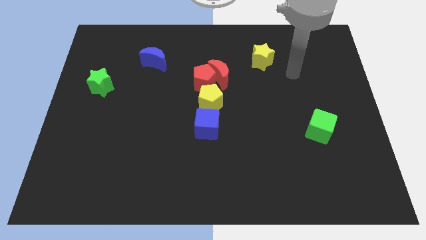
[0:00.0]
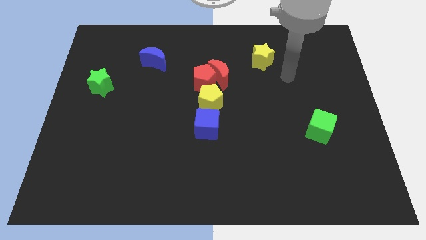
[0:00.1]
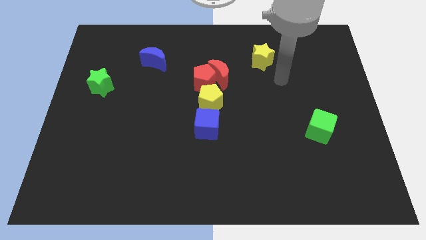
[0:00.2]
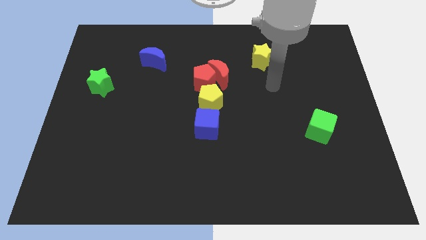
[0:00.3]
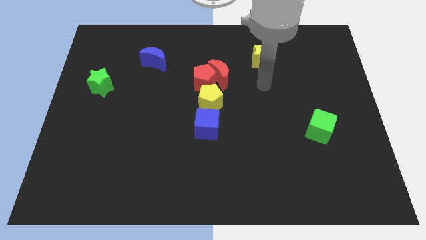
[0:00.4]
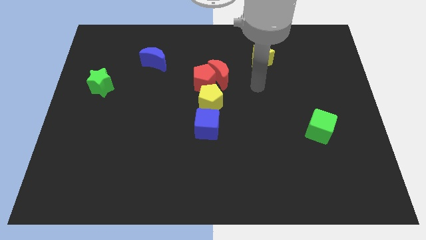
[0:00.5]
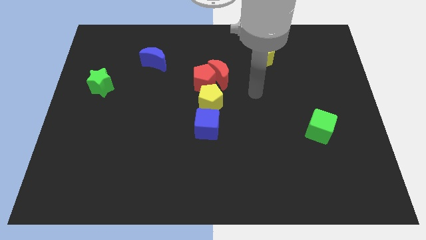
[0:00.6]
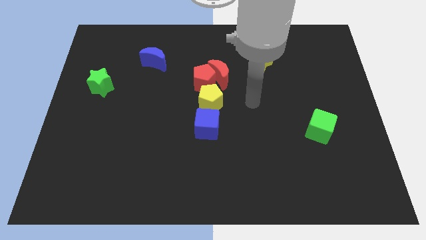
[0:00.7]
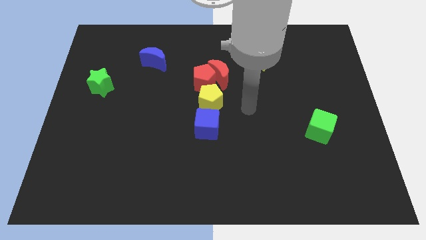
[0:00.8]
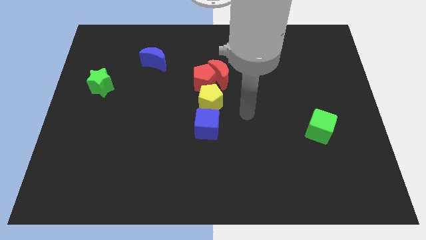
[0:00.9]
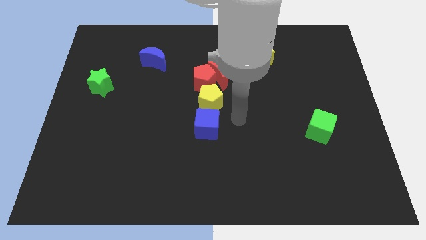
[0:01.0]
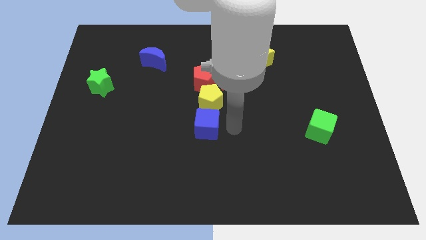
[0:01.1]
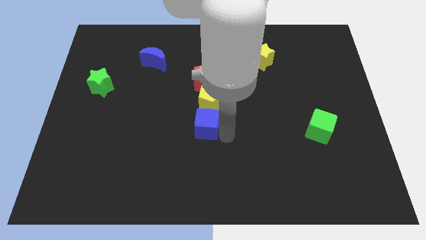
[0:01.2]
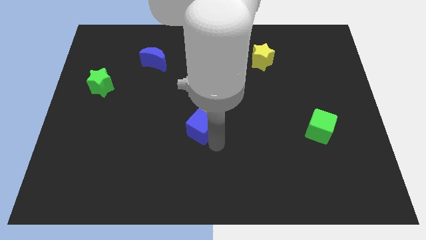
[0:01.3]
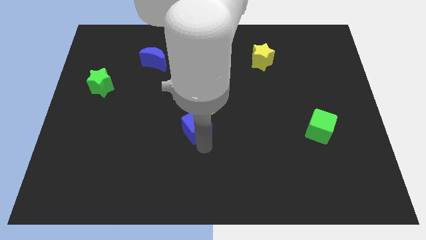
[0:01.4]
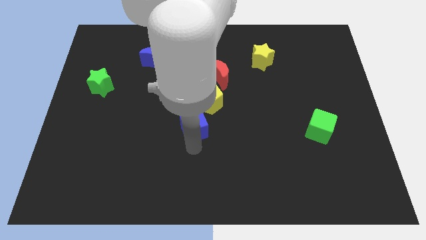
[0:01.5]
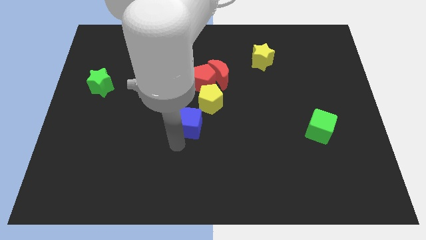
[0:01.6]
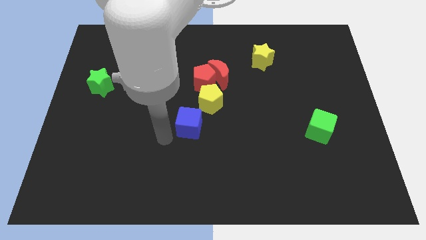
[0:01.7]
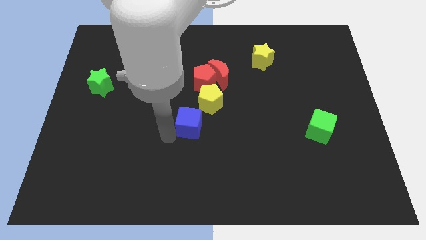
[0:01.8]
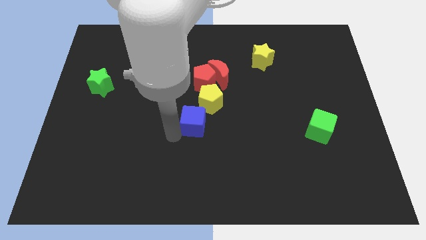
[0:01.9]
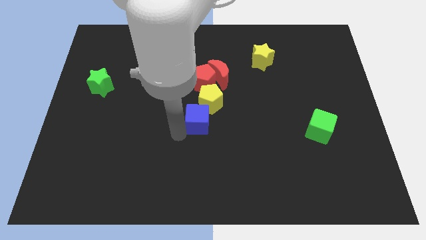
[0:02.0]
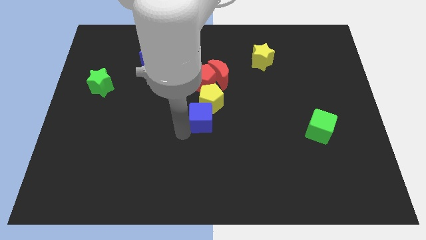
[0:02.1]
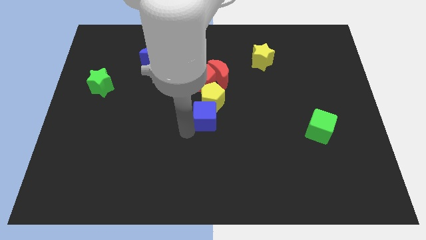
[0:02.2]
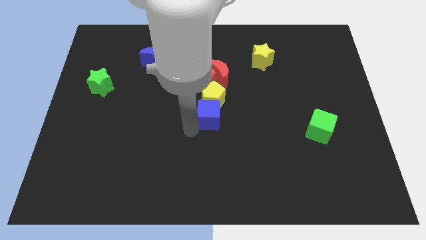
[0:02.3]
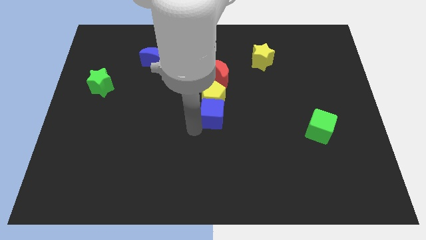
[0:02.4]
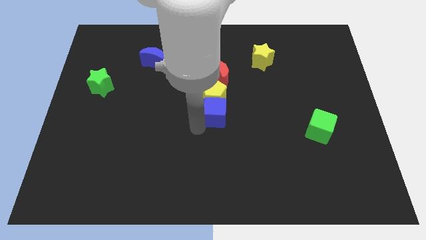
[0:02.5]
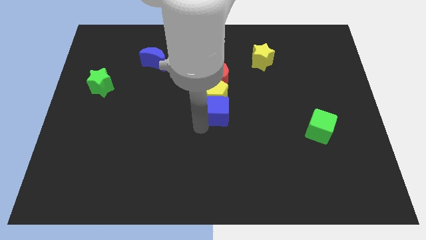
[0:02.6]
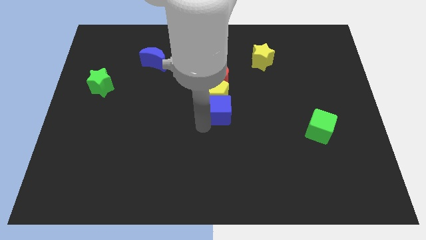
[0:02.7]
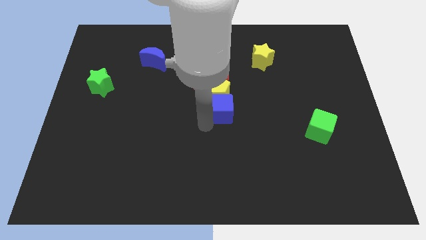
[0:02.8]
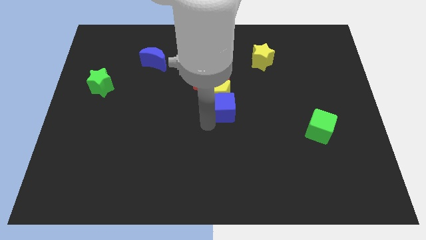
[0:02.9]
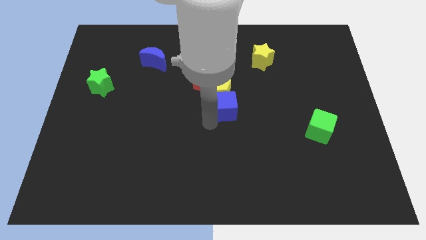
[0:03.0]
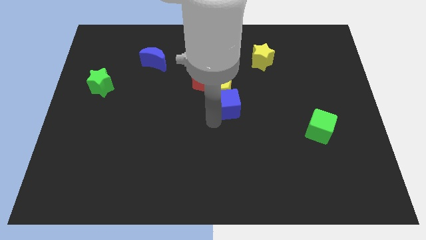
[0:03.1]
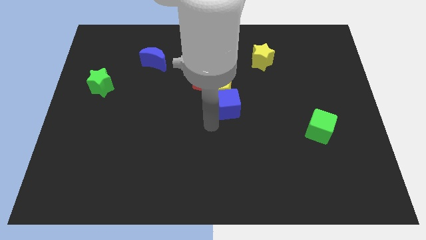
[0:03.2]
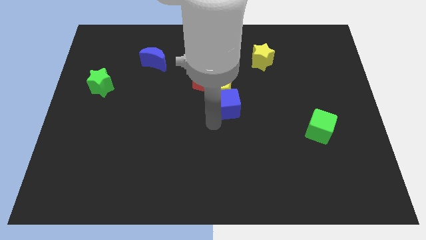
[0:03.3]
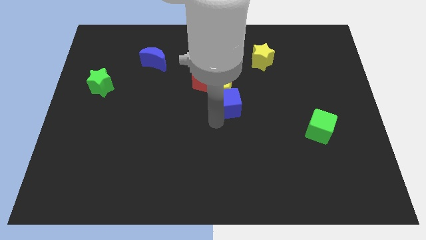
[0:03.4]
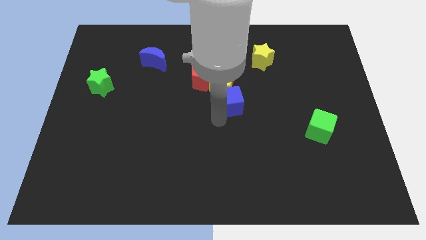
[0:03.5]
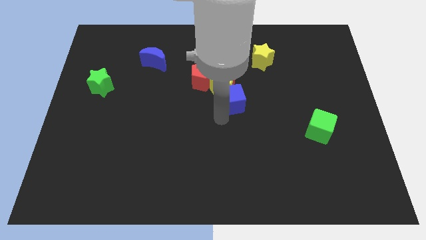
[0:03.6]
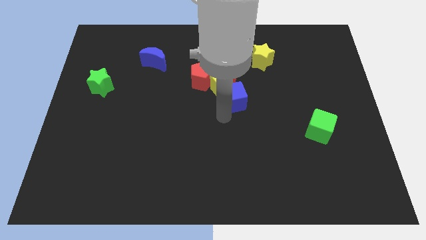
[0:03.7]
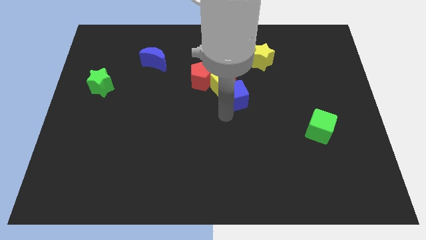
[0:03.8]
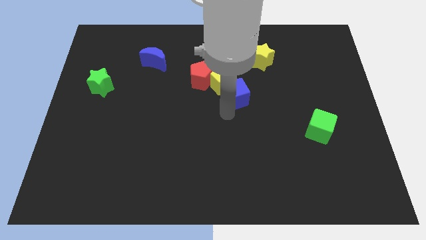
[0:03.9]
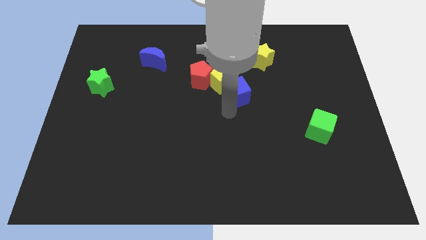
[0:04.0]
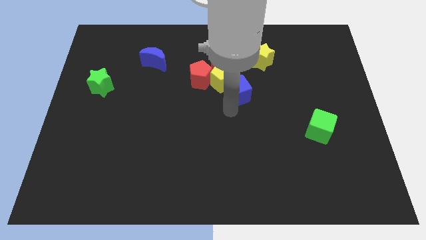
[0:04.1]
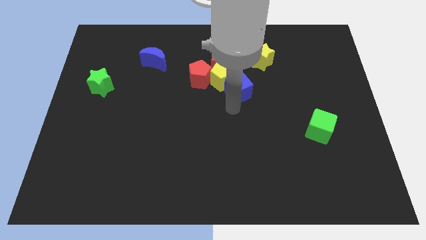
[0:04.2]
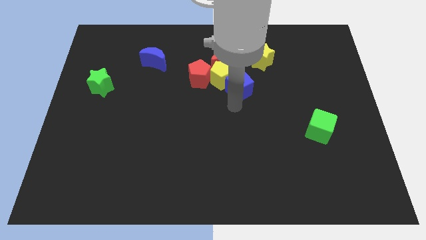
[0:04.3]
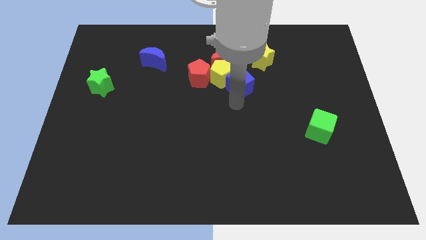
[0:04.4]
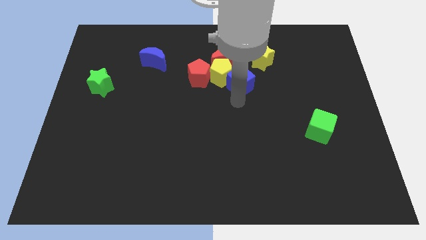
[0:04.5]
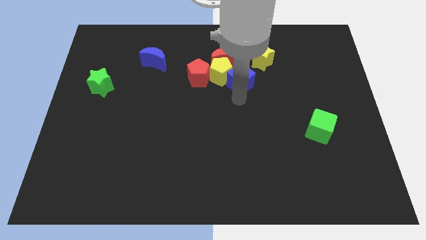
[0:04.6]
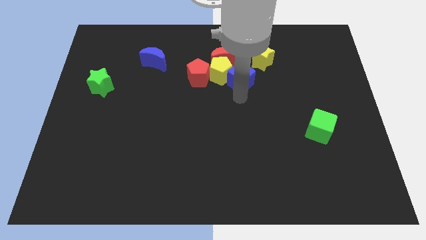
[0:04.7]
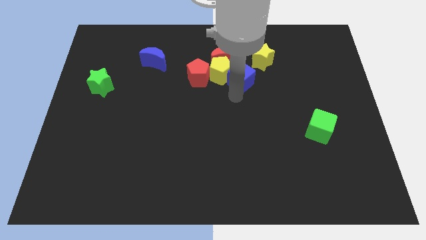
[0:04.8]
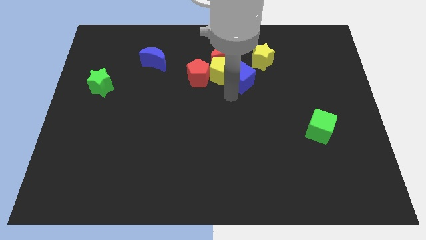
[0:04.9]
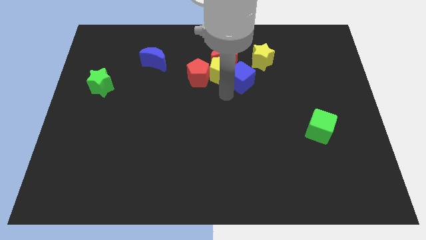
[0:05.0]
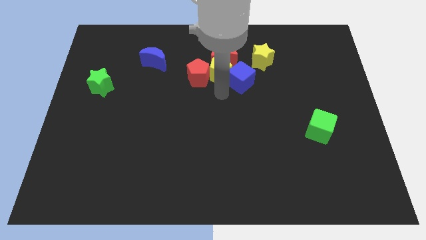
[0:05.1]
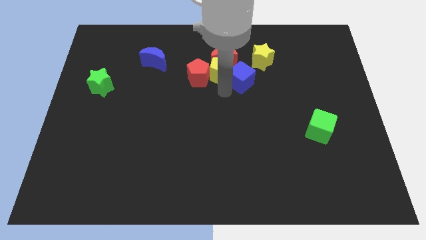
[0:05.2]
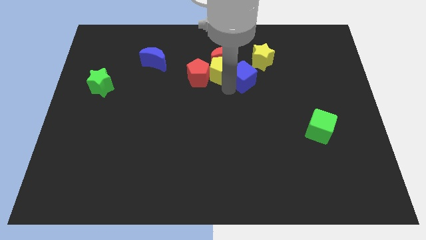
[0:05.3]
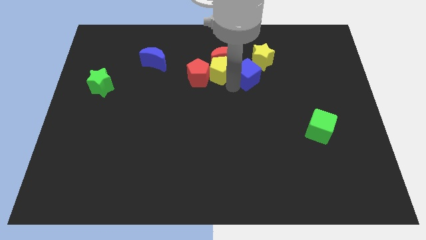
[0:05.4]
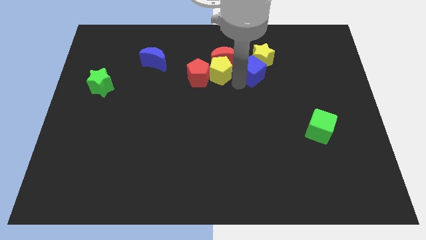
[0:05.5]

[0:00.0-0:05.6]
move the blue cube next to the yellow star
